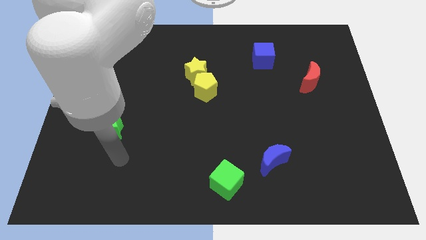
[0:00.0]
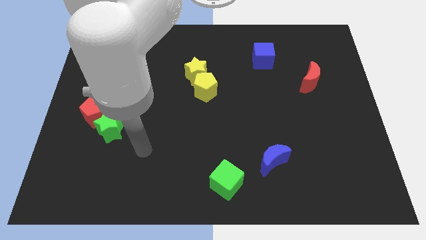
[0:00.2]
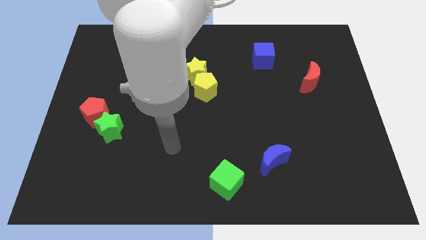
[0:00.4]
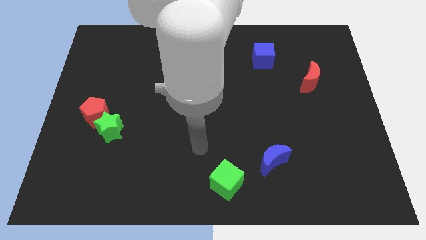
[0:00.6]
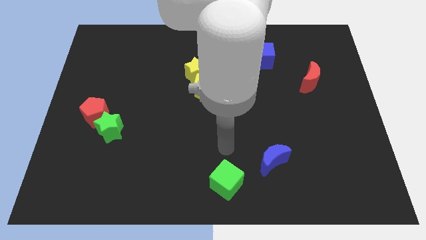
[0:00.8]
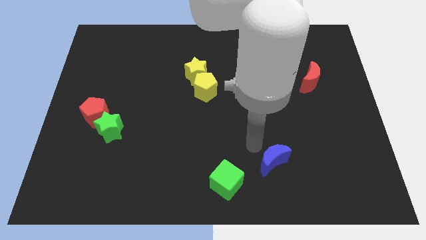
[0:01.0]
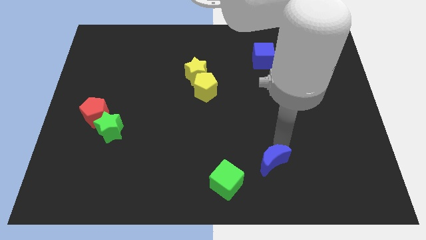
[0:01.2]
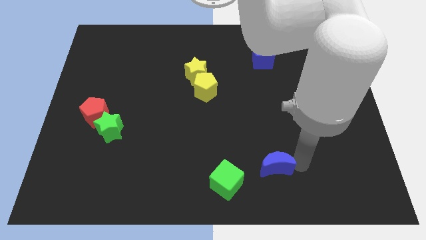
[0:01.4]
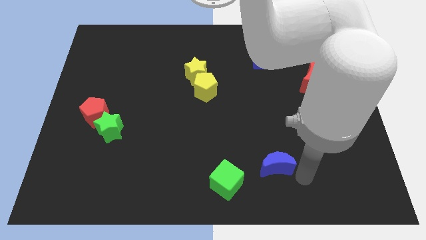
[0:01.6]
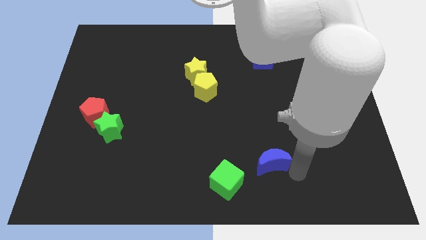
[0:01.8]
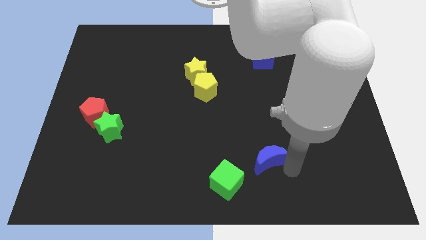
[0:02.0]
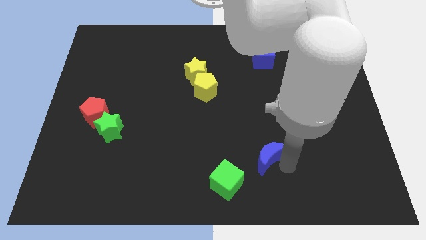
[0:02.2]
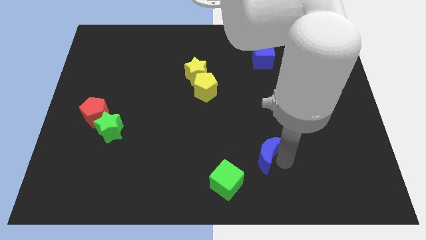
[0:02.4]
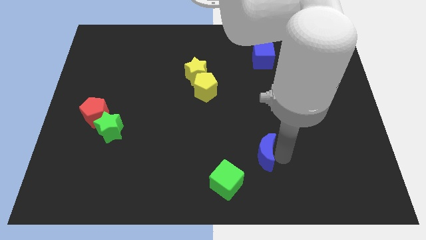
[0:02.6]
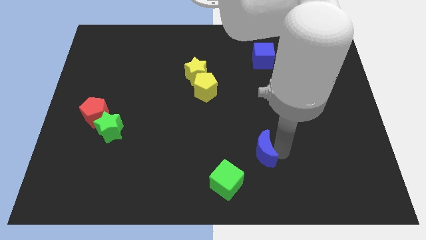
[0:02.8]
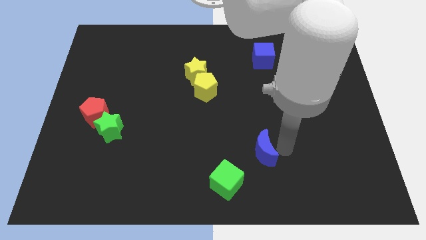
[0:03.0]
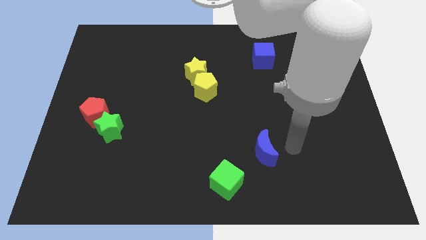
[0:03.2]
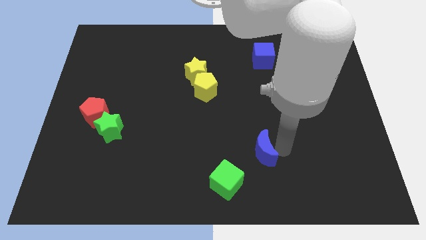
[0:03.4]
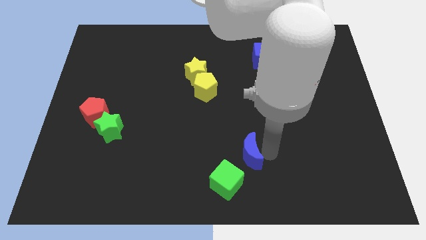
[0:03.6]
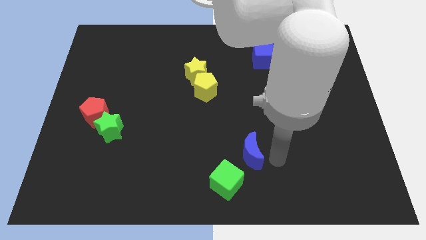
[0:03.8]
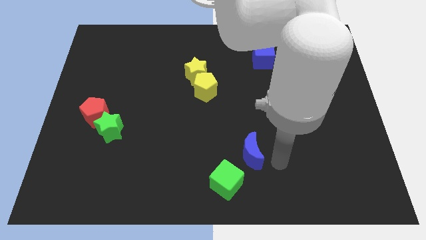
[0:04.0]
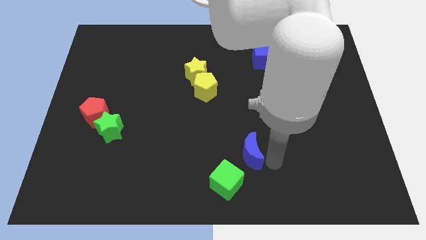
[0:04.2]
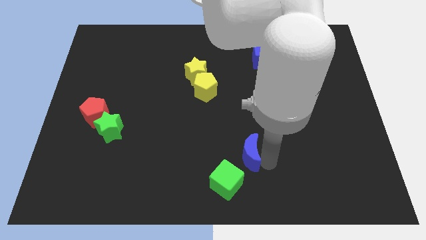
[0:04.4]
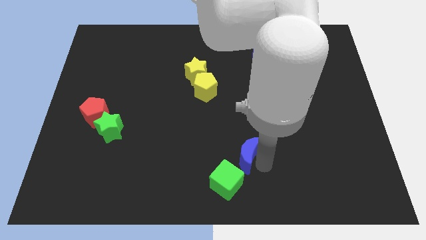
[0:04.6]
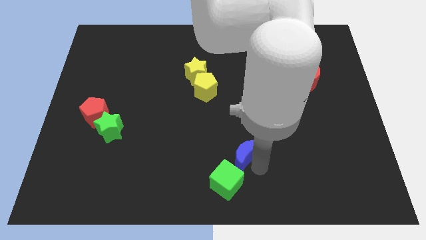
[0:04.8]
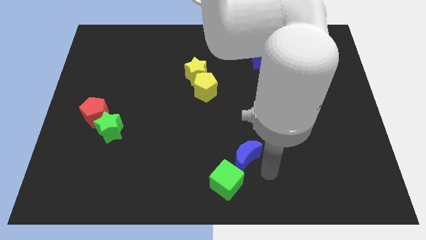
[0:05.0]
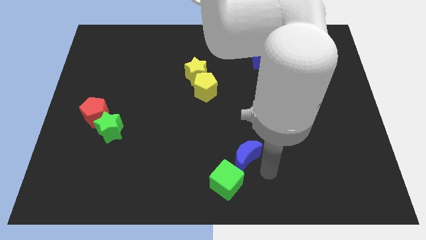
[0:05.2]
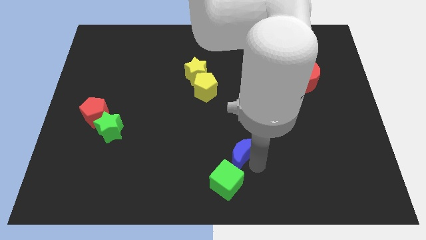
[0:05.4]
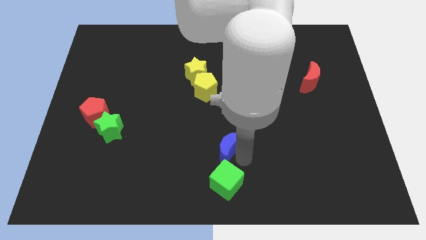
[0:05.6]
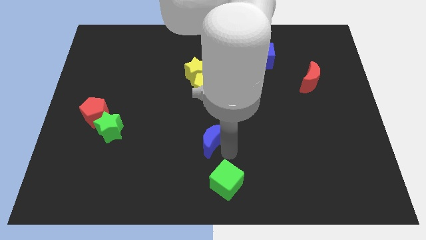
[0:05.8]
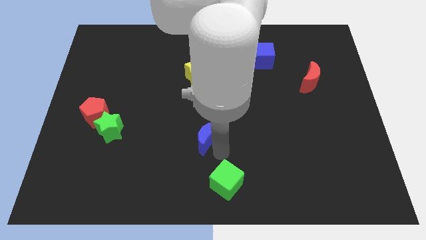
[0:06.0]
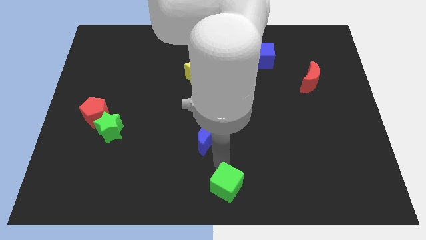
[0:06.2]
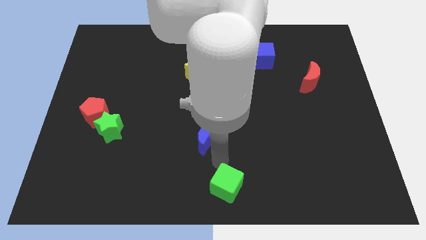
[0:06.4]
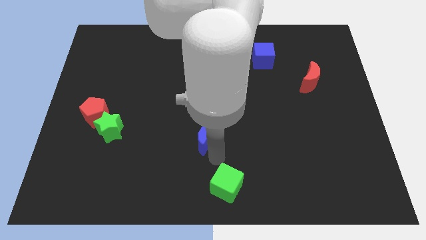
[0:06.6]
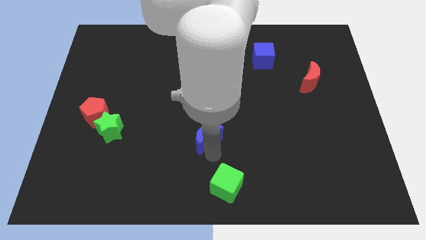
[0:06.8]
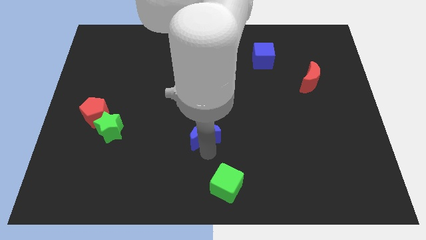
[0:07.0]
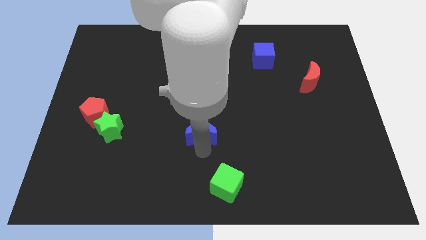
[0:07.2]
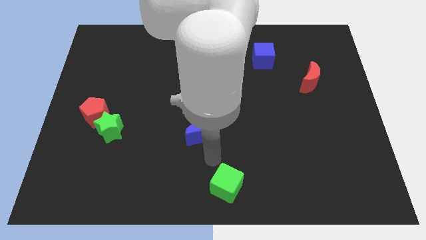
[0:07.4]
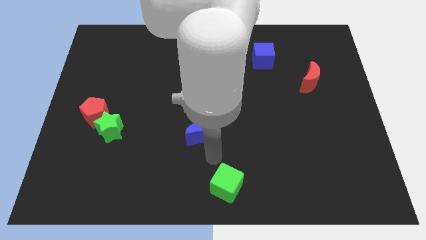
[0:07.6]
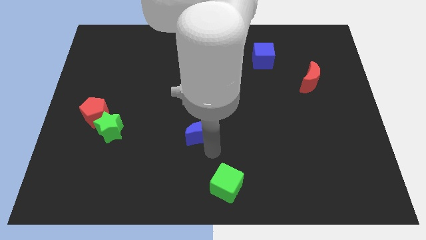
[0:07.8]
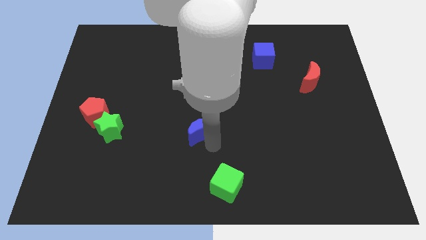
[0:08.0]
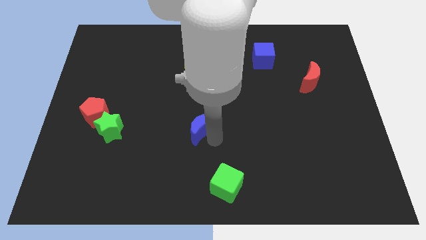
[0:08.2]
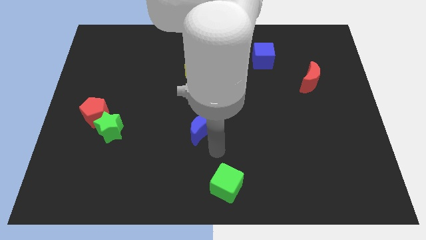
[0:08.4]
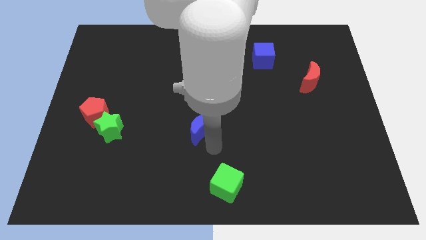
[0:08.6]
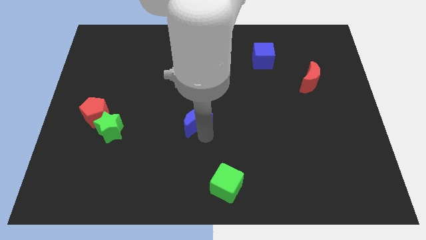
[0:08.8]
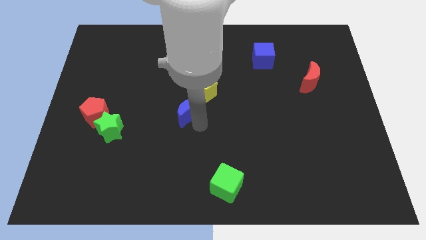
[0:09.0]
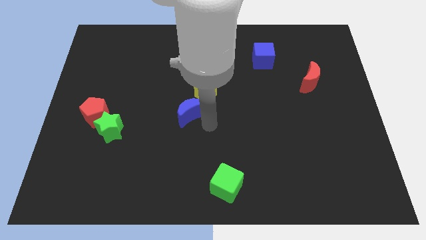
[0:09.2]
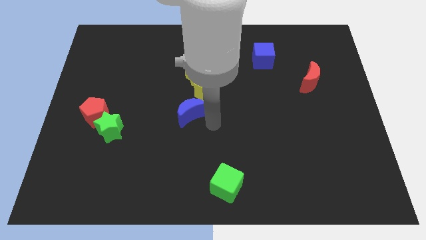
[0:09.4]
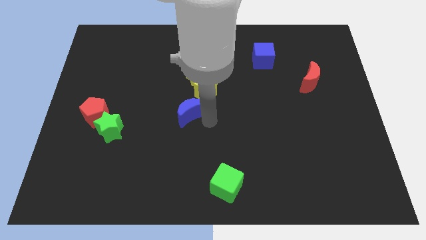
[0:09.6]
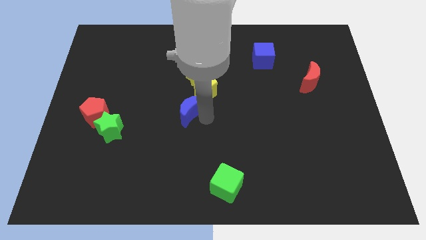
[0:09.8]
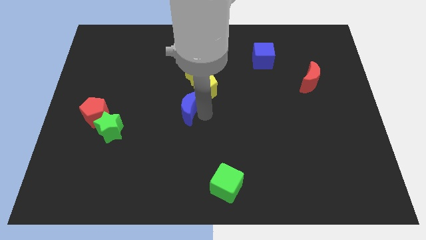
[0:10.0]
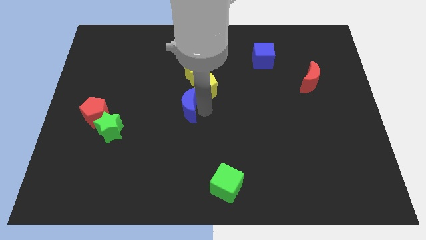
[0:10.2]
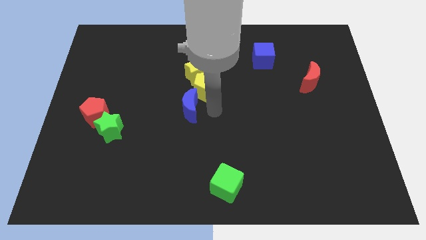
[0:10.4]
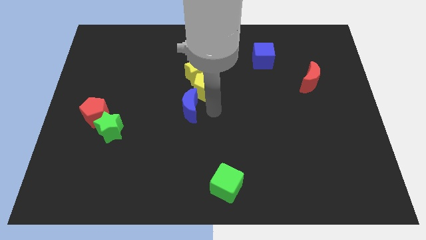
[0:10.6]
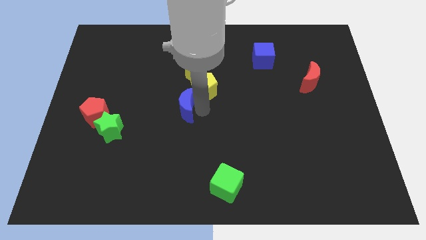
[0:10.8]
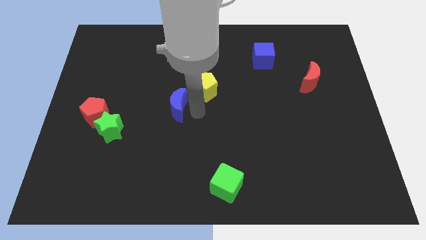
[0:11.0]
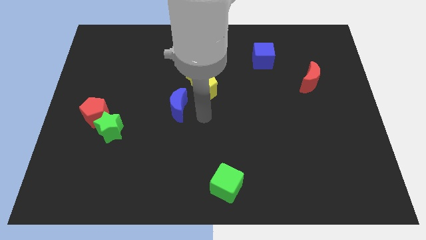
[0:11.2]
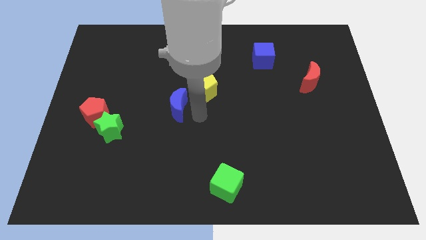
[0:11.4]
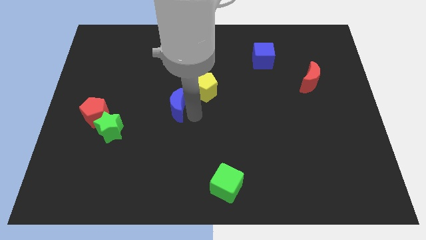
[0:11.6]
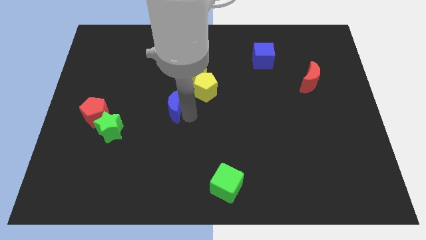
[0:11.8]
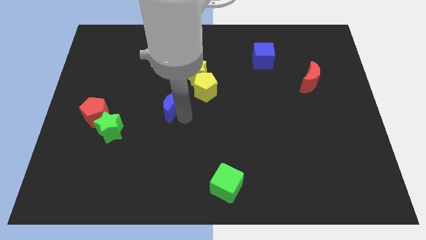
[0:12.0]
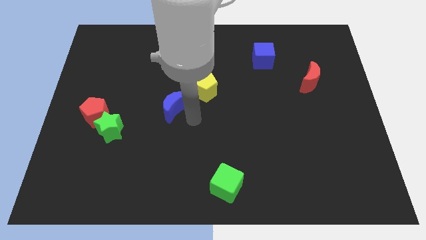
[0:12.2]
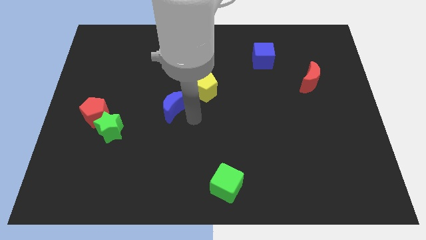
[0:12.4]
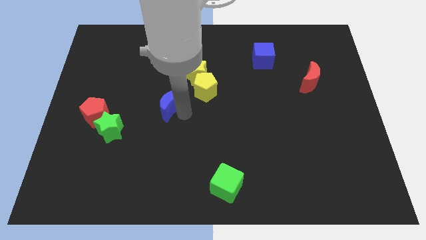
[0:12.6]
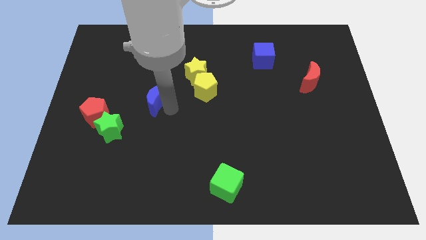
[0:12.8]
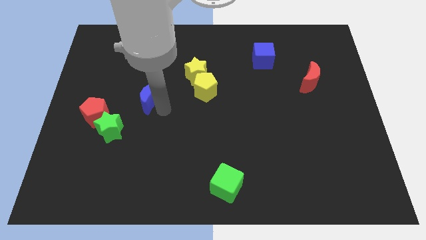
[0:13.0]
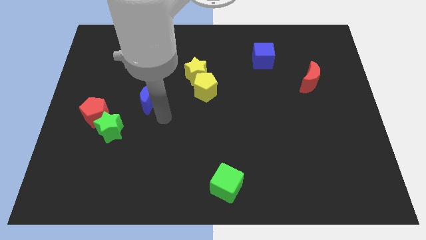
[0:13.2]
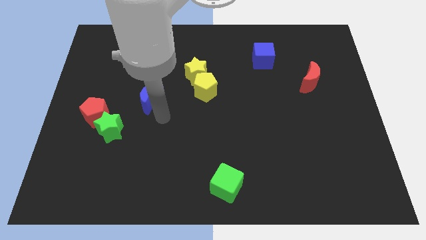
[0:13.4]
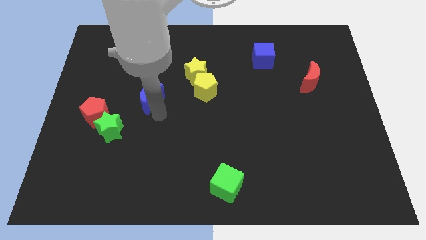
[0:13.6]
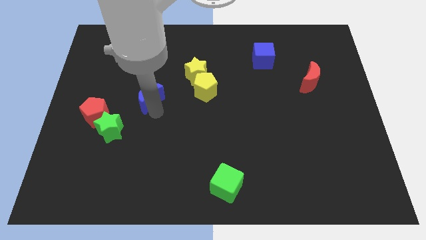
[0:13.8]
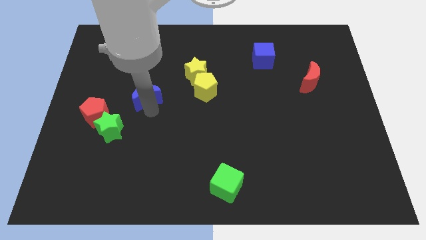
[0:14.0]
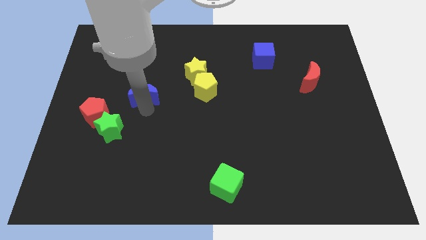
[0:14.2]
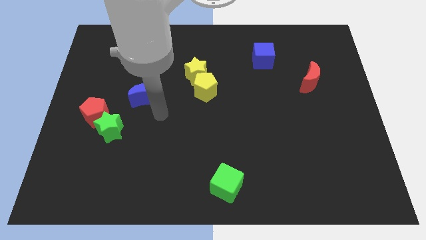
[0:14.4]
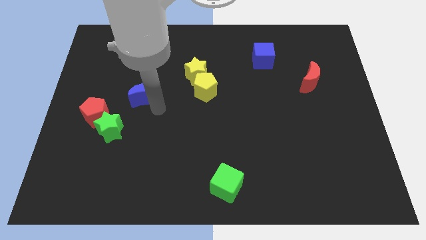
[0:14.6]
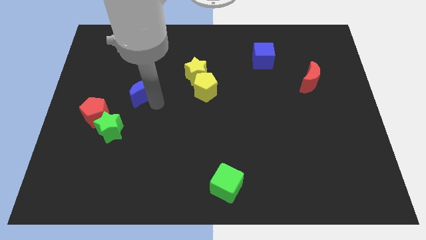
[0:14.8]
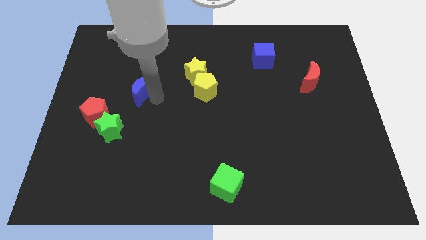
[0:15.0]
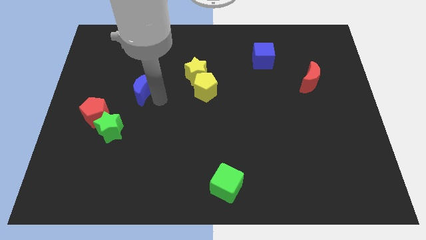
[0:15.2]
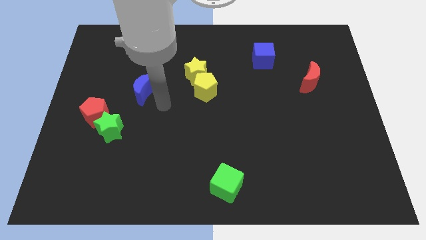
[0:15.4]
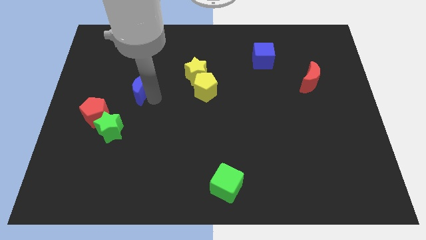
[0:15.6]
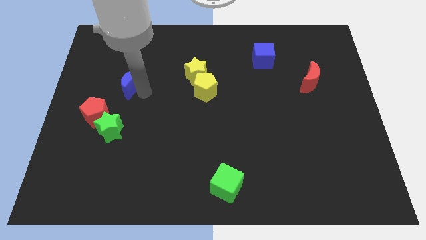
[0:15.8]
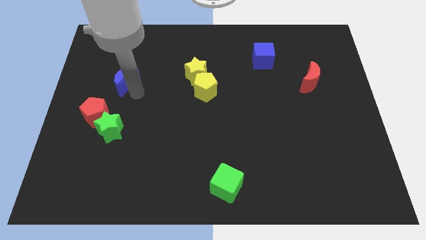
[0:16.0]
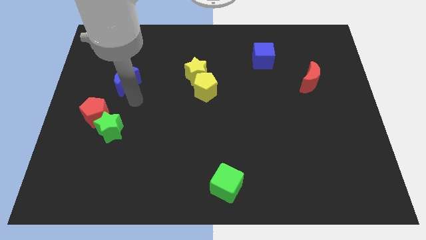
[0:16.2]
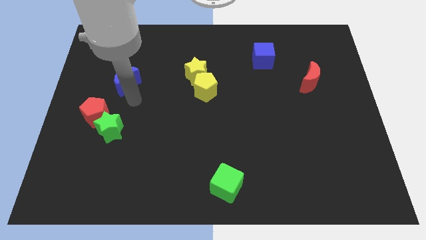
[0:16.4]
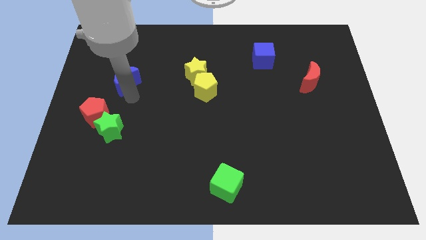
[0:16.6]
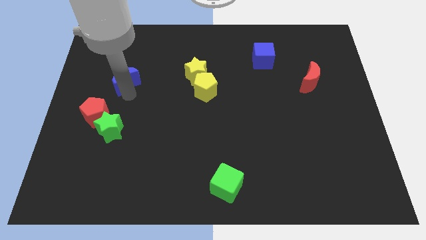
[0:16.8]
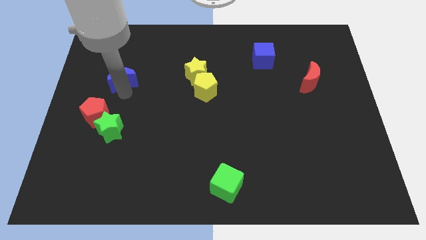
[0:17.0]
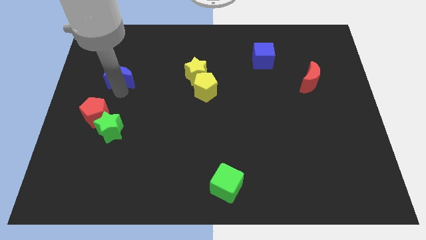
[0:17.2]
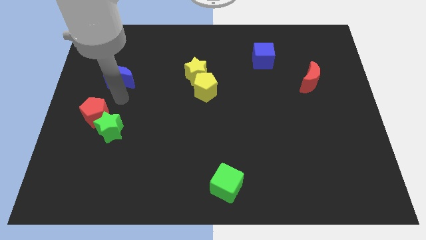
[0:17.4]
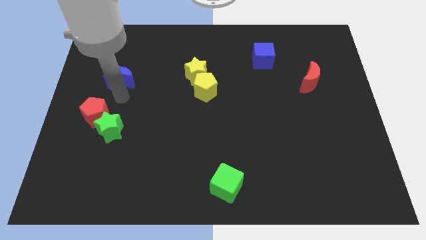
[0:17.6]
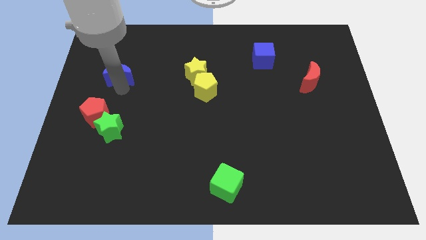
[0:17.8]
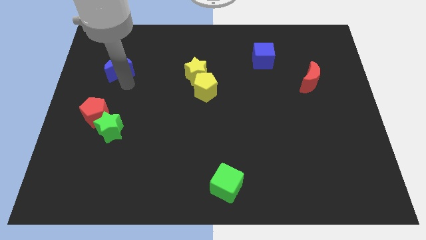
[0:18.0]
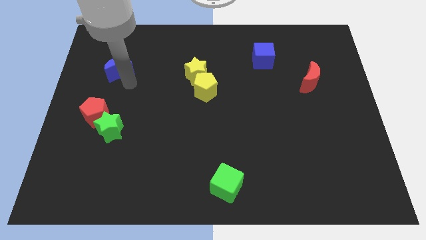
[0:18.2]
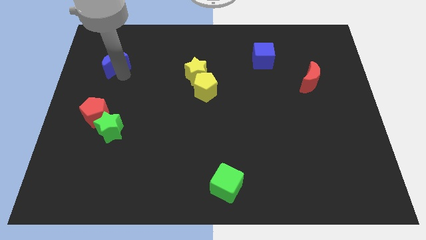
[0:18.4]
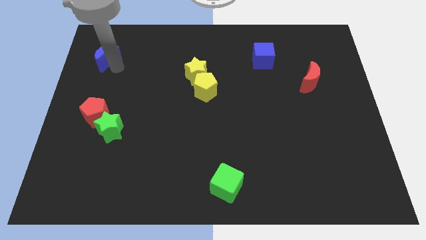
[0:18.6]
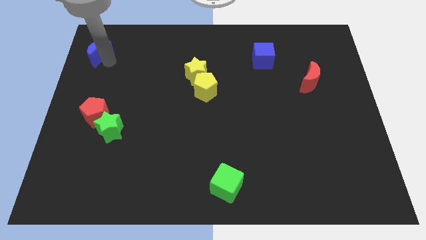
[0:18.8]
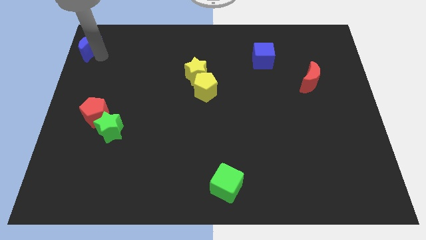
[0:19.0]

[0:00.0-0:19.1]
push the blue moon to the upper left corner
